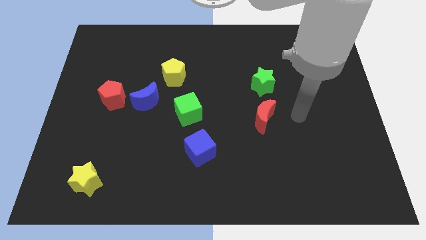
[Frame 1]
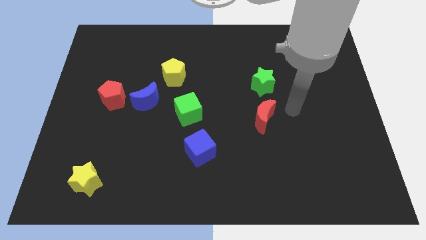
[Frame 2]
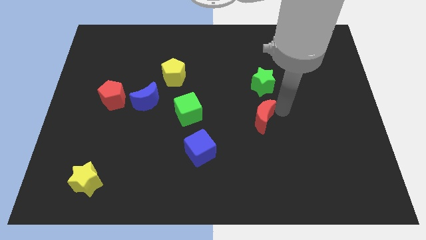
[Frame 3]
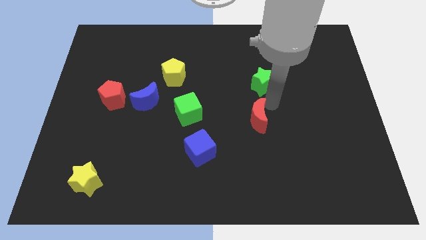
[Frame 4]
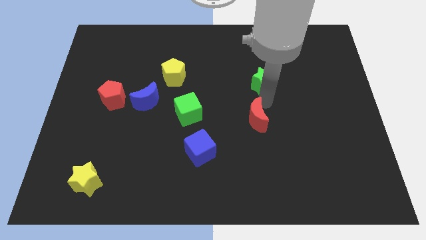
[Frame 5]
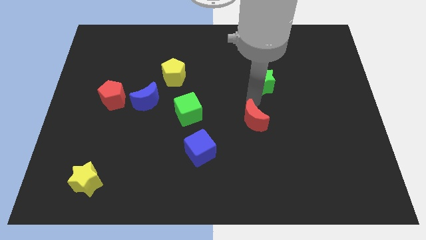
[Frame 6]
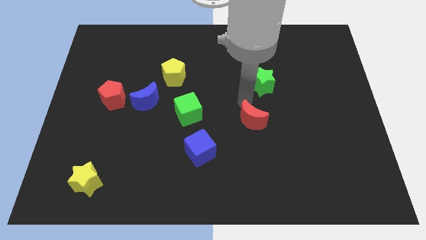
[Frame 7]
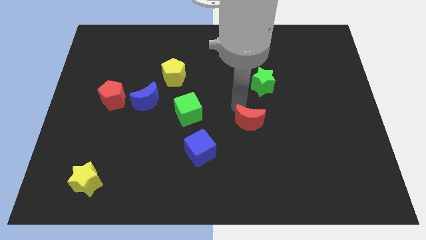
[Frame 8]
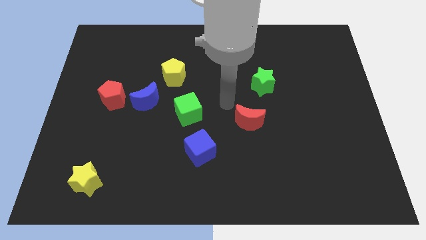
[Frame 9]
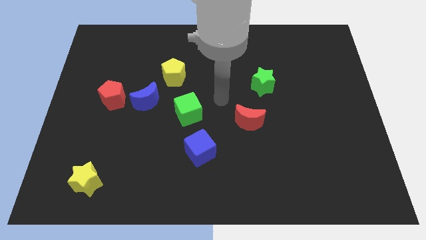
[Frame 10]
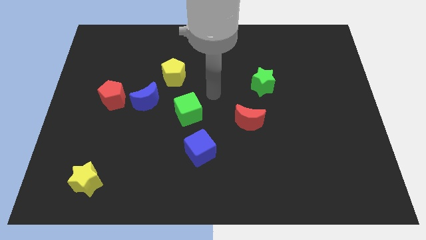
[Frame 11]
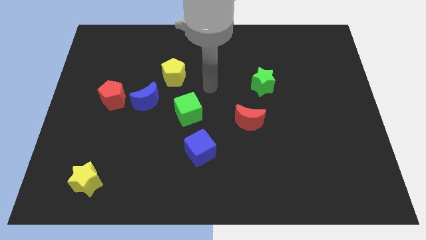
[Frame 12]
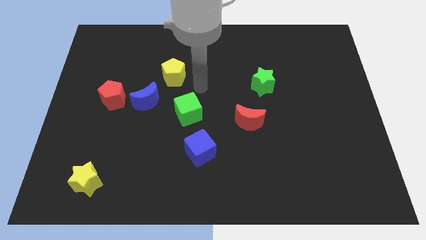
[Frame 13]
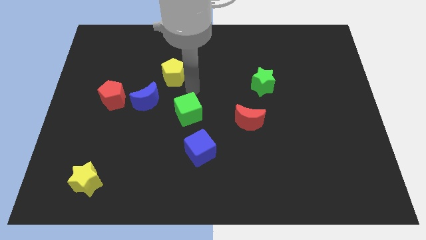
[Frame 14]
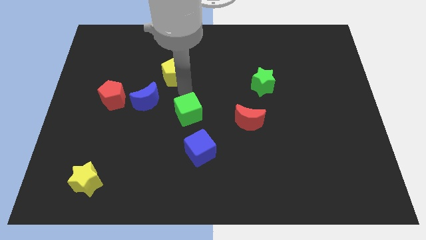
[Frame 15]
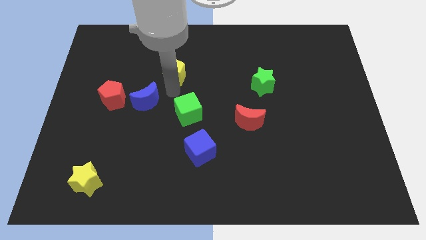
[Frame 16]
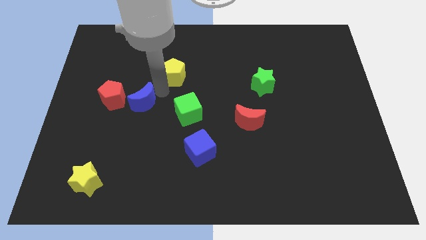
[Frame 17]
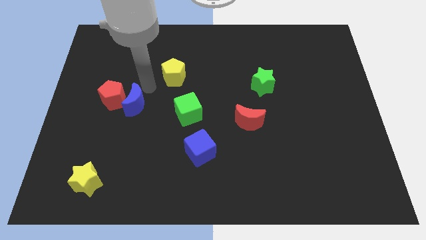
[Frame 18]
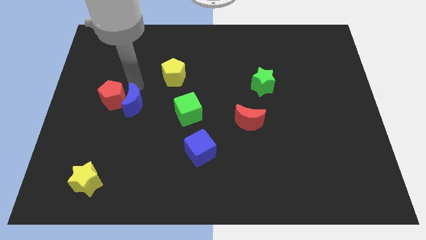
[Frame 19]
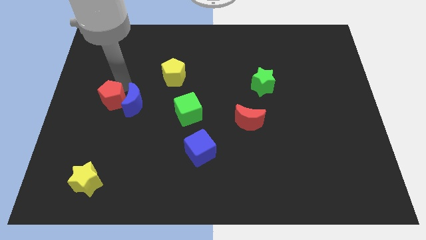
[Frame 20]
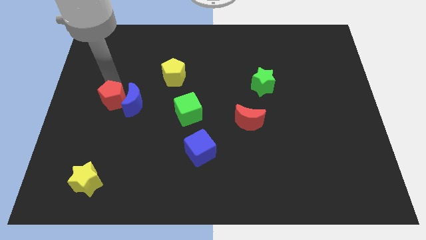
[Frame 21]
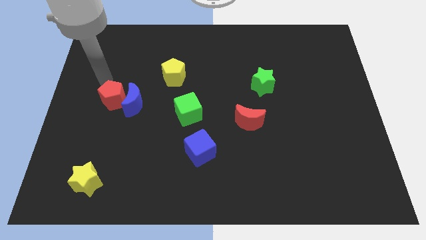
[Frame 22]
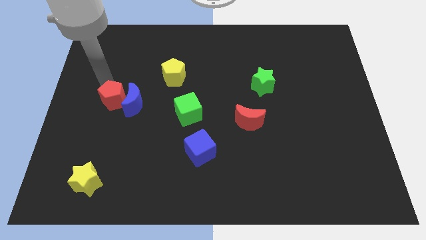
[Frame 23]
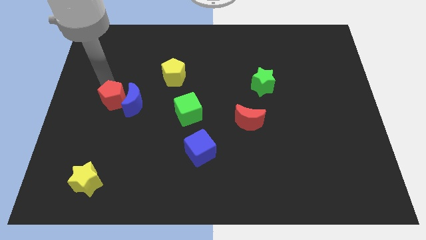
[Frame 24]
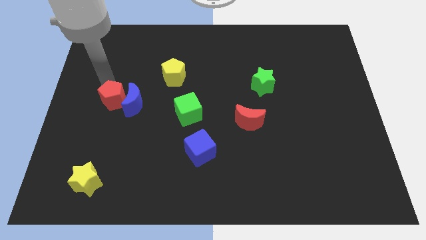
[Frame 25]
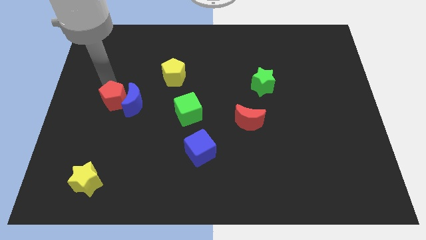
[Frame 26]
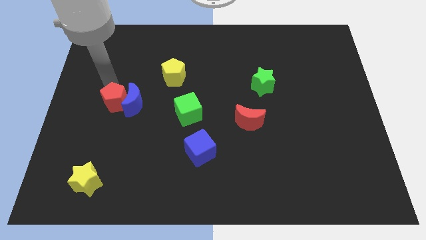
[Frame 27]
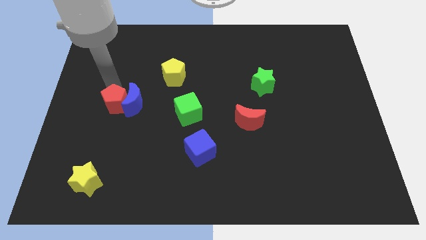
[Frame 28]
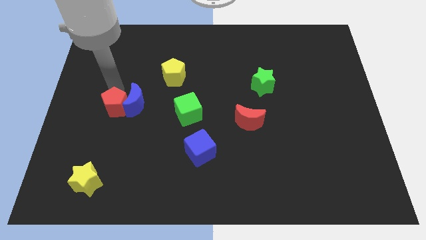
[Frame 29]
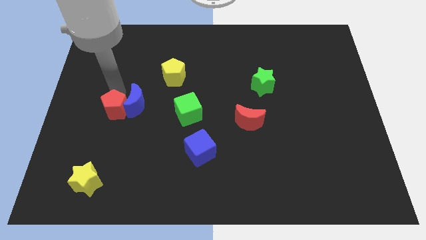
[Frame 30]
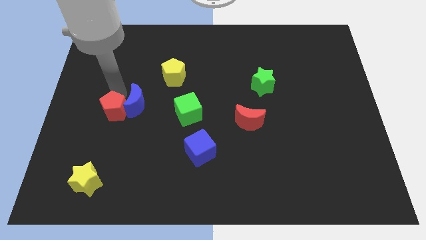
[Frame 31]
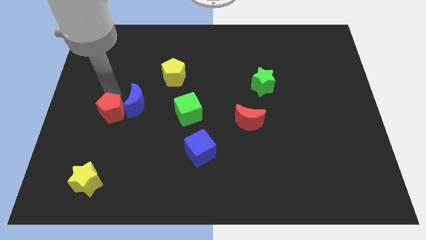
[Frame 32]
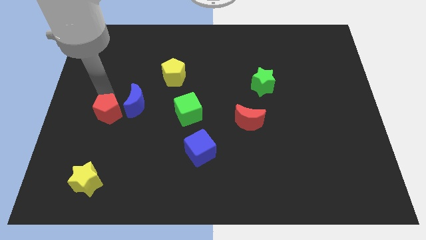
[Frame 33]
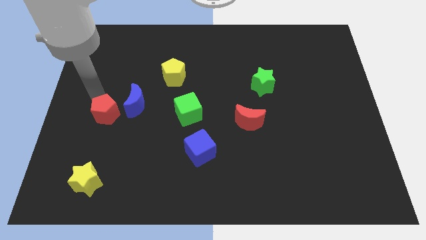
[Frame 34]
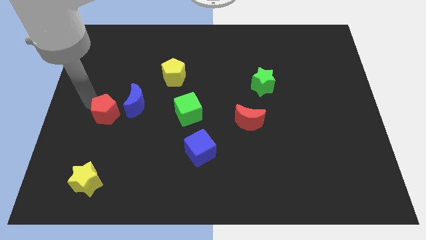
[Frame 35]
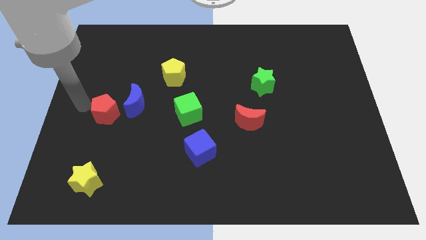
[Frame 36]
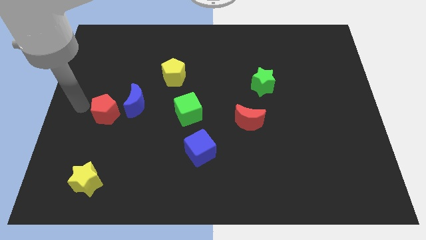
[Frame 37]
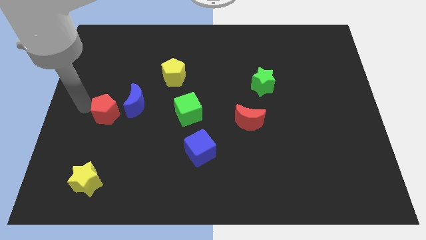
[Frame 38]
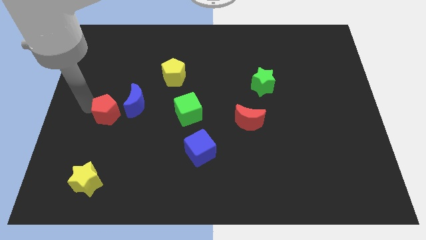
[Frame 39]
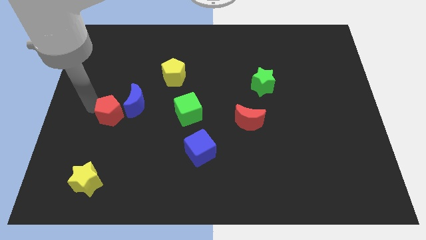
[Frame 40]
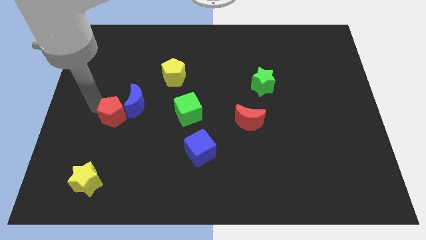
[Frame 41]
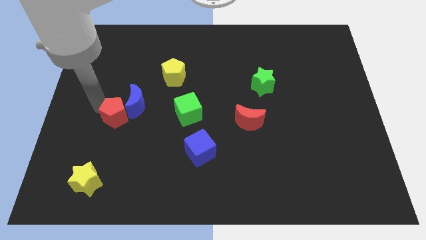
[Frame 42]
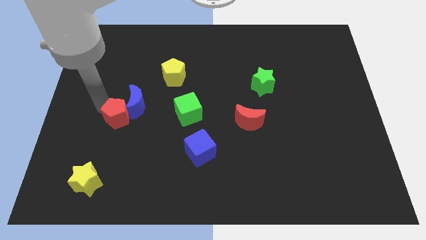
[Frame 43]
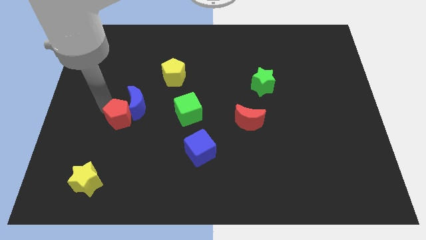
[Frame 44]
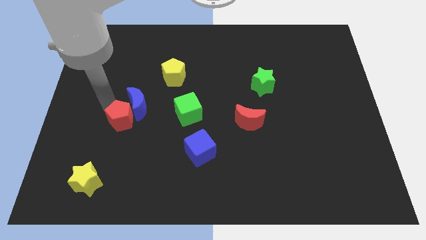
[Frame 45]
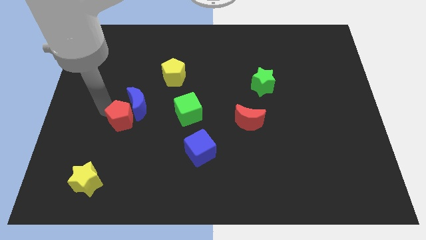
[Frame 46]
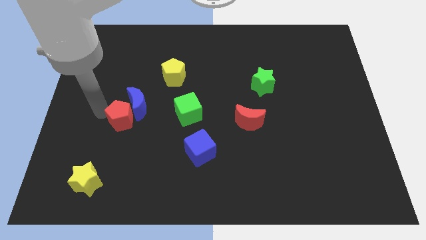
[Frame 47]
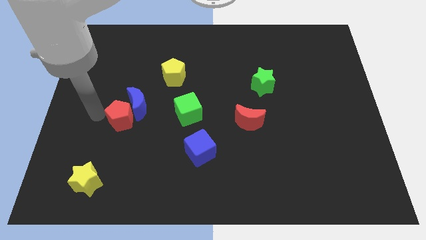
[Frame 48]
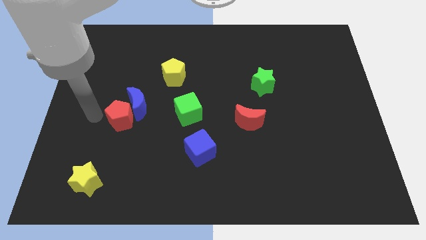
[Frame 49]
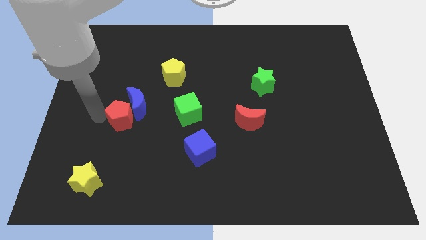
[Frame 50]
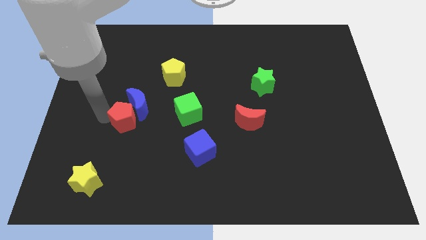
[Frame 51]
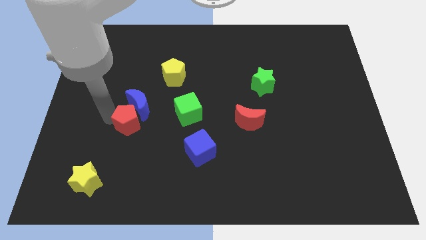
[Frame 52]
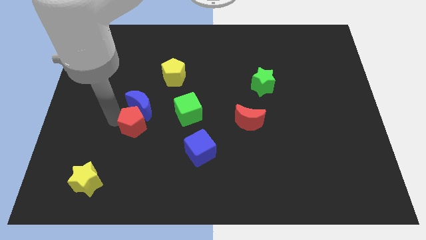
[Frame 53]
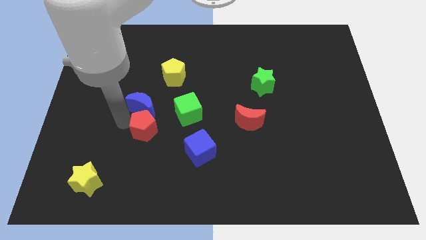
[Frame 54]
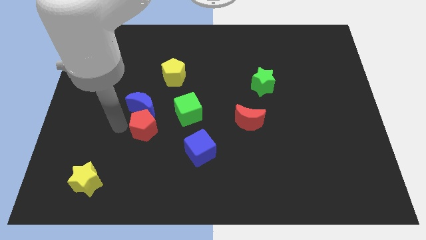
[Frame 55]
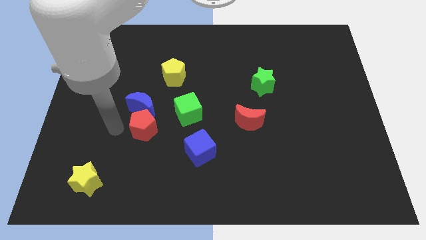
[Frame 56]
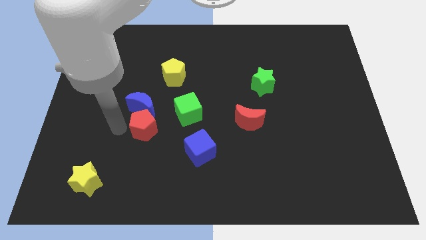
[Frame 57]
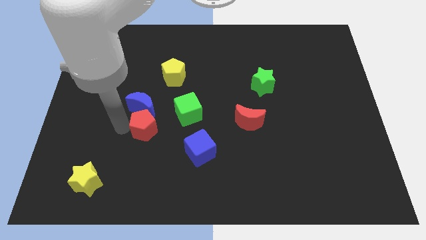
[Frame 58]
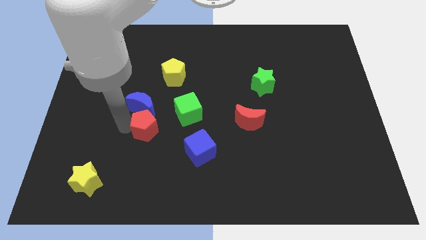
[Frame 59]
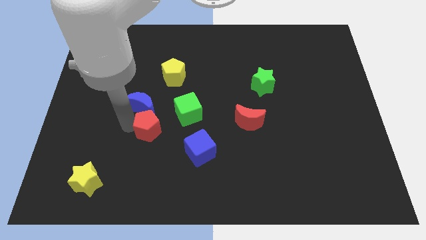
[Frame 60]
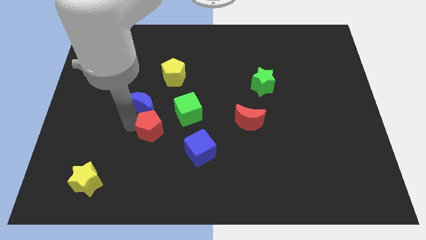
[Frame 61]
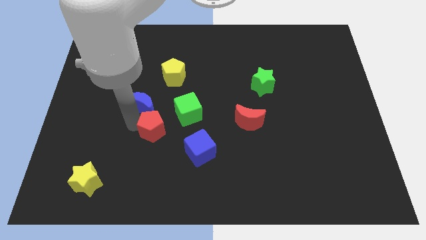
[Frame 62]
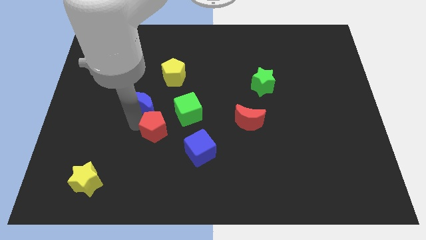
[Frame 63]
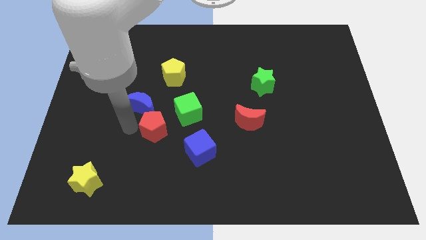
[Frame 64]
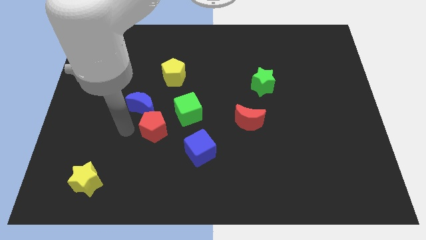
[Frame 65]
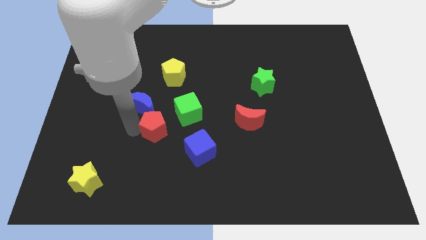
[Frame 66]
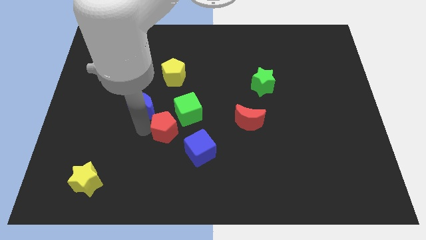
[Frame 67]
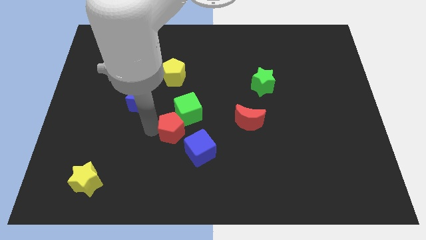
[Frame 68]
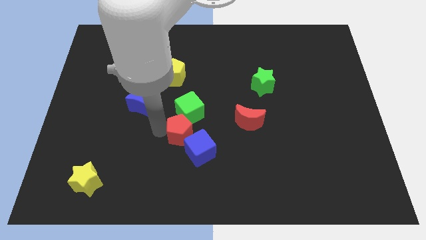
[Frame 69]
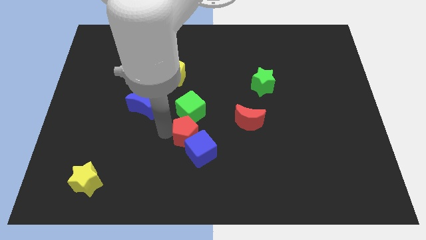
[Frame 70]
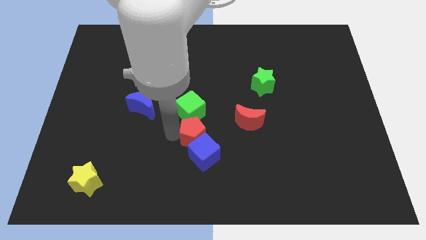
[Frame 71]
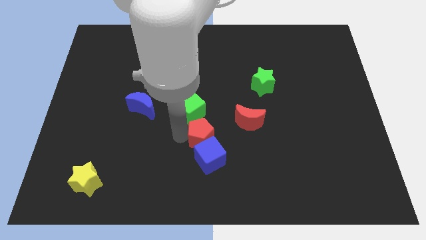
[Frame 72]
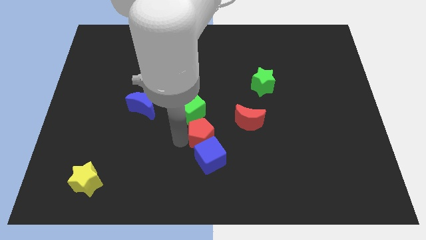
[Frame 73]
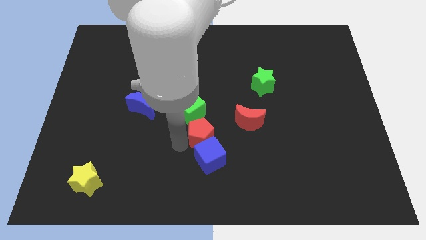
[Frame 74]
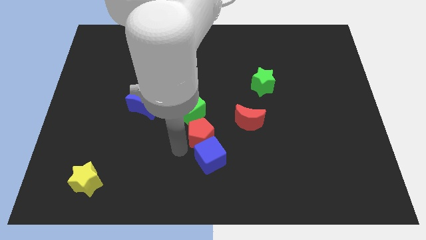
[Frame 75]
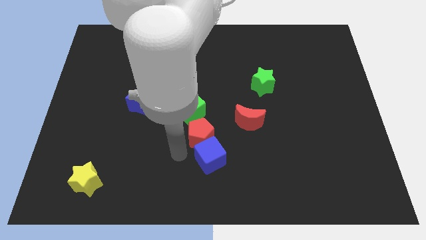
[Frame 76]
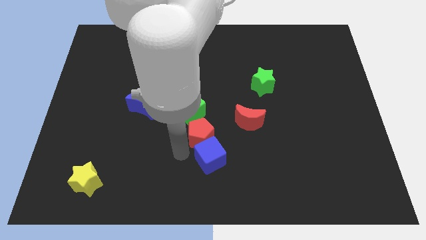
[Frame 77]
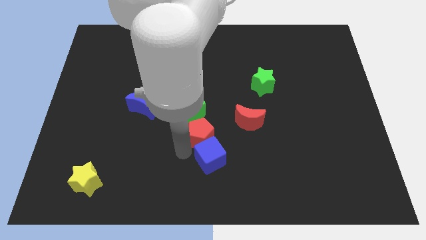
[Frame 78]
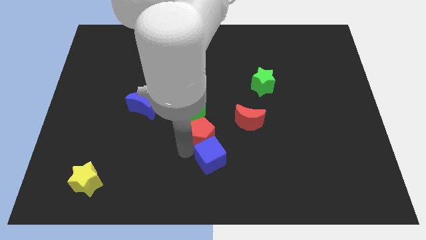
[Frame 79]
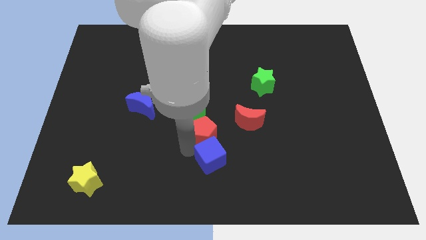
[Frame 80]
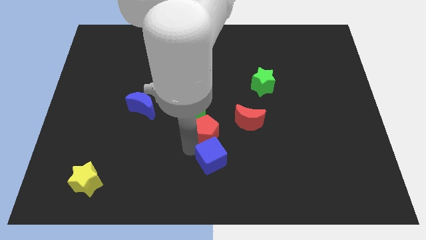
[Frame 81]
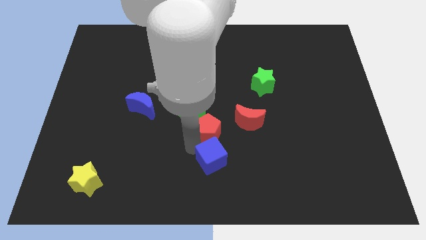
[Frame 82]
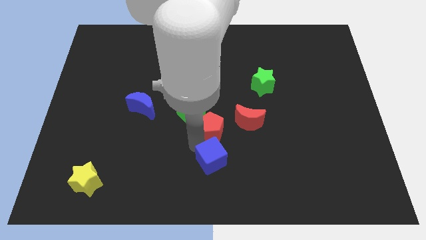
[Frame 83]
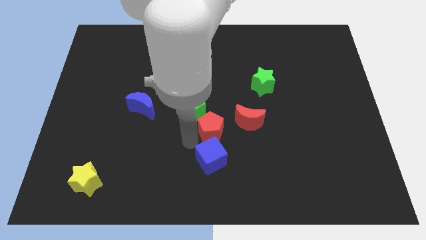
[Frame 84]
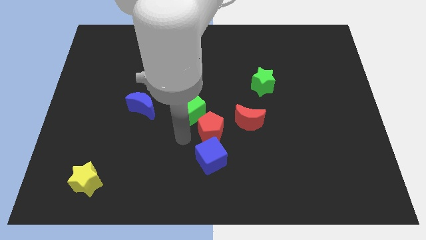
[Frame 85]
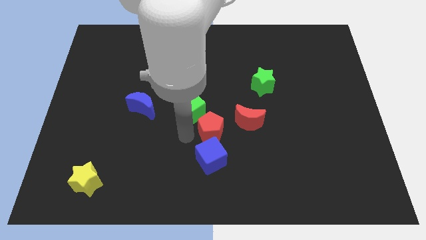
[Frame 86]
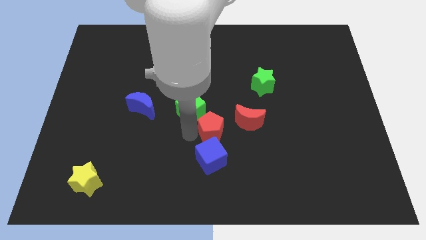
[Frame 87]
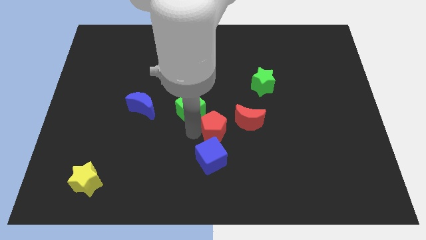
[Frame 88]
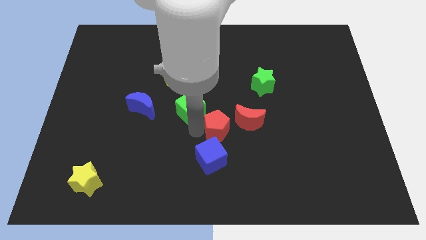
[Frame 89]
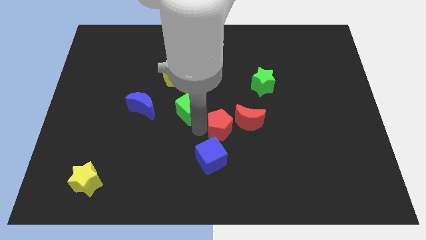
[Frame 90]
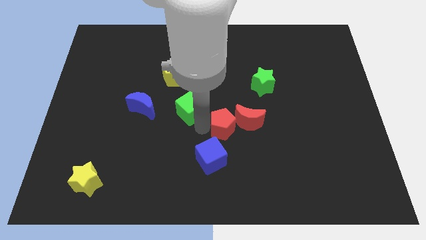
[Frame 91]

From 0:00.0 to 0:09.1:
put the red pentagon next to the red moon
